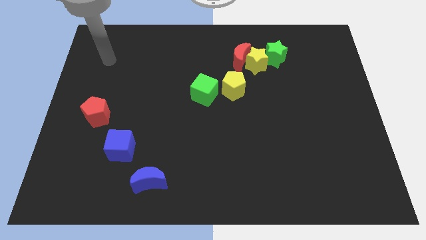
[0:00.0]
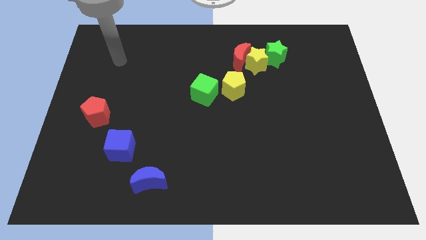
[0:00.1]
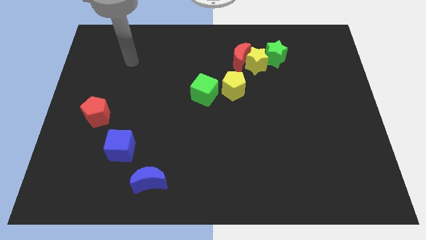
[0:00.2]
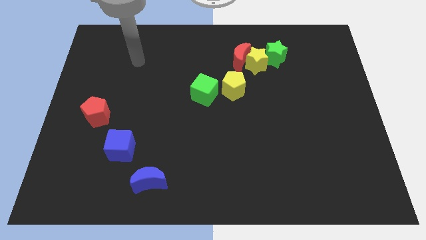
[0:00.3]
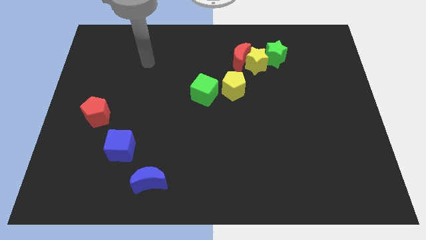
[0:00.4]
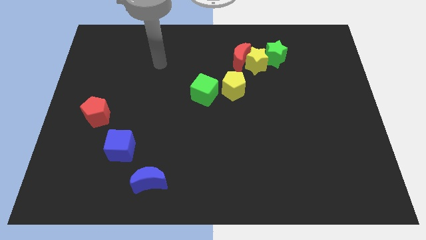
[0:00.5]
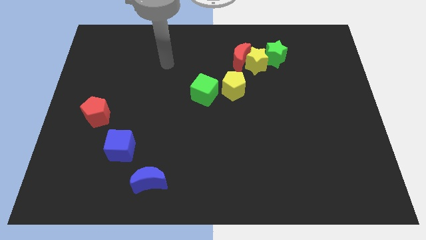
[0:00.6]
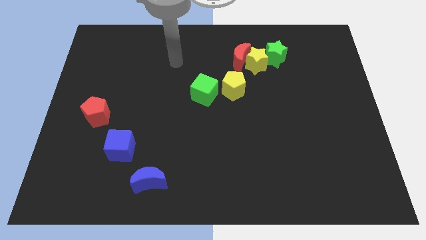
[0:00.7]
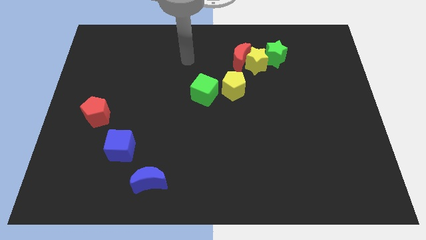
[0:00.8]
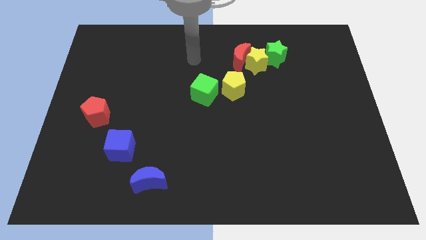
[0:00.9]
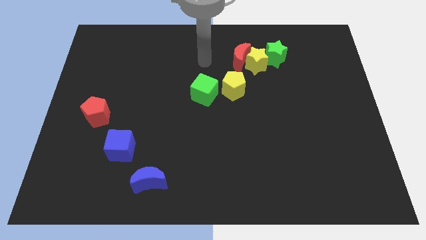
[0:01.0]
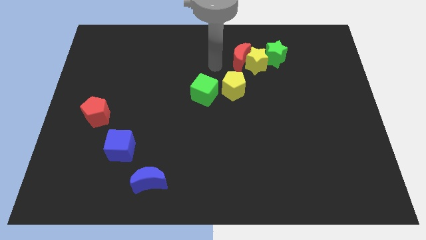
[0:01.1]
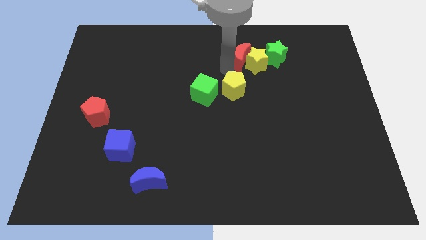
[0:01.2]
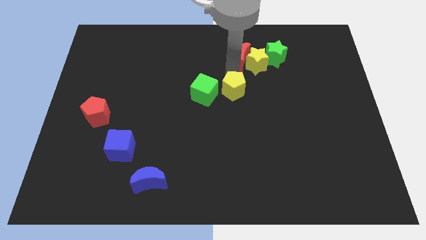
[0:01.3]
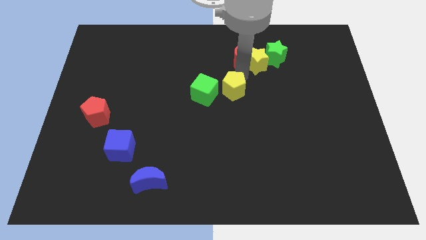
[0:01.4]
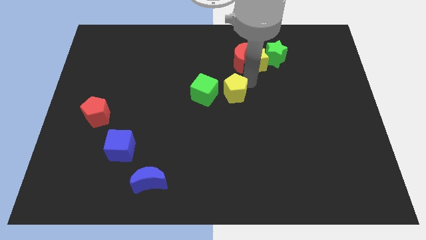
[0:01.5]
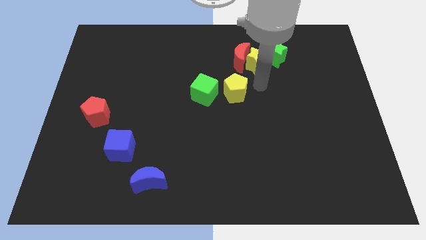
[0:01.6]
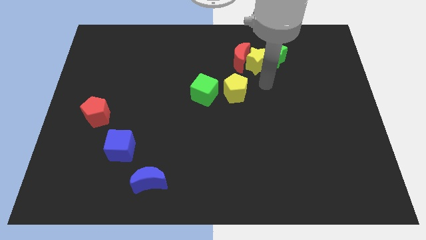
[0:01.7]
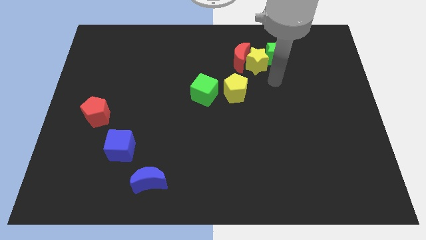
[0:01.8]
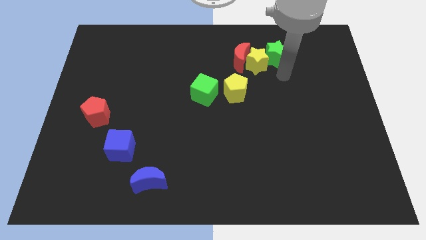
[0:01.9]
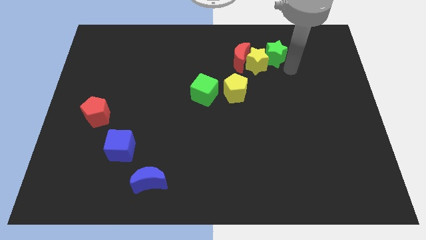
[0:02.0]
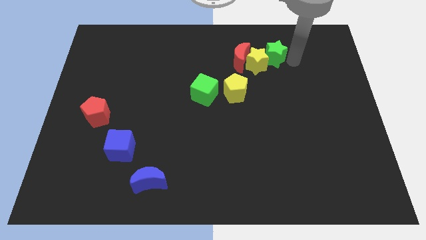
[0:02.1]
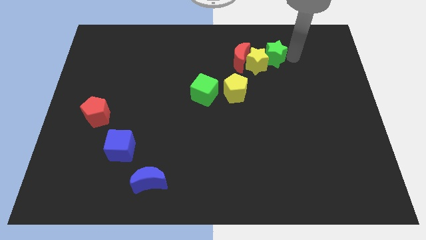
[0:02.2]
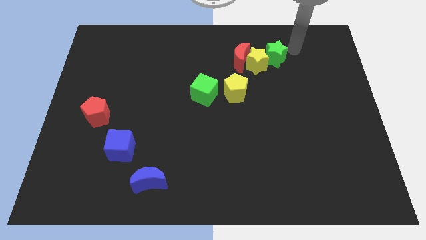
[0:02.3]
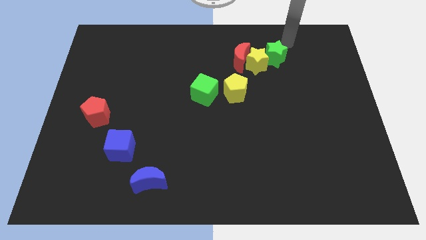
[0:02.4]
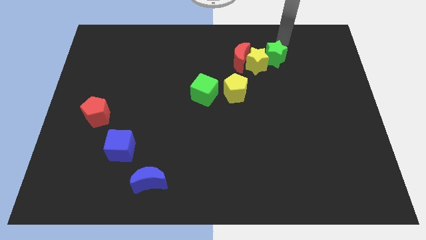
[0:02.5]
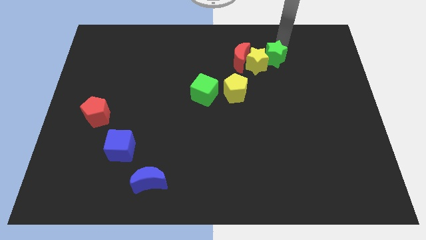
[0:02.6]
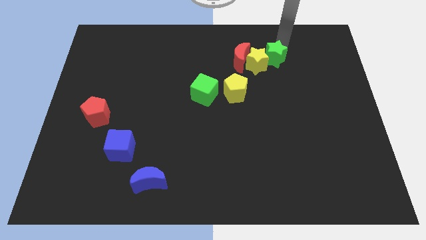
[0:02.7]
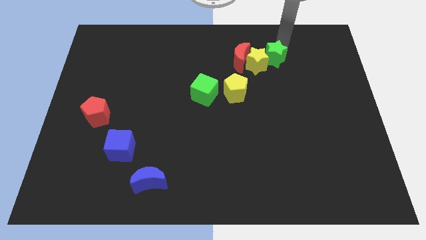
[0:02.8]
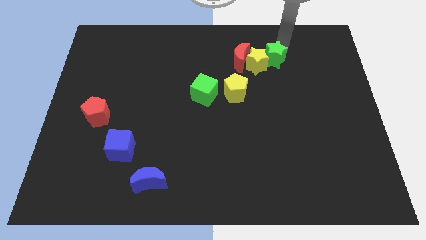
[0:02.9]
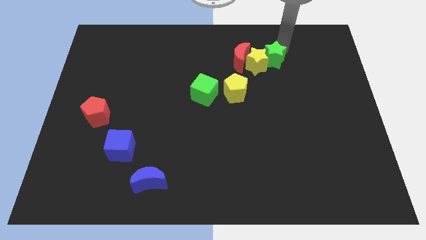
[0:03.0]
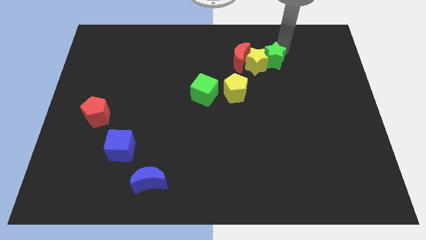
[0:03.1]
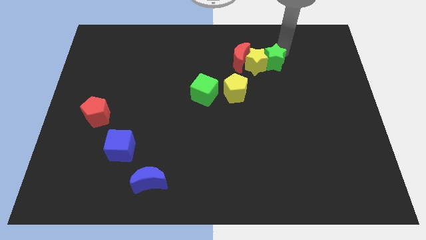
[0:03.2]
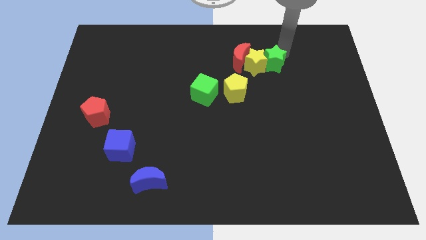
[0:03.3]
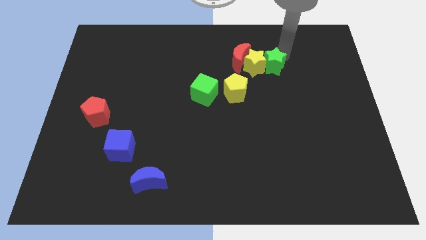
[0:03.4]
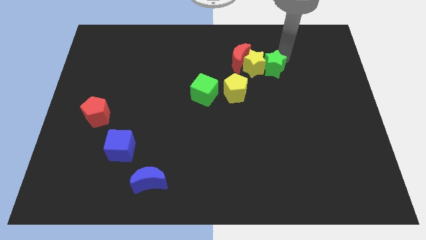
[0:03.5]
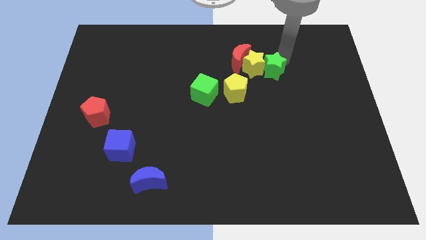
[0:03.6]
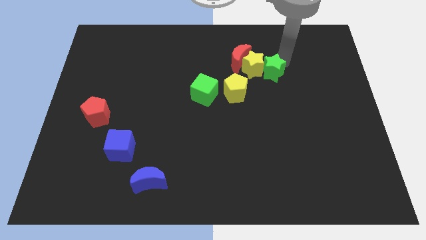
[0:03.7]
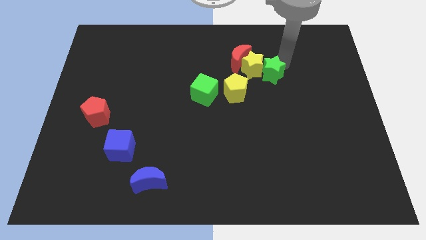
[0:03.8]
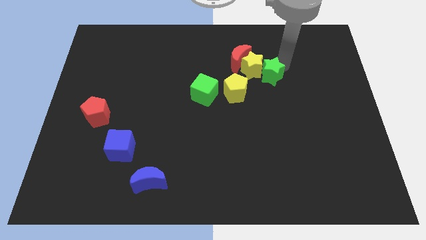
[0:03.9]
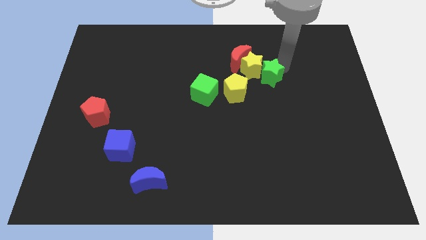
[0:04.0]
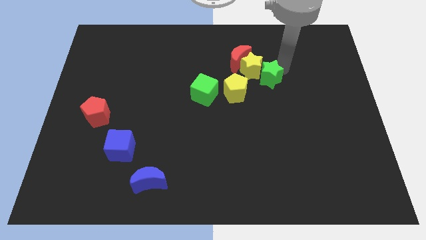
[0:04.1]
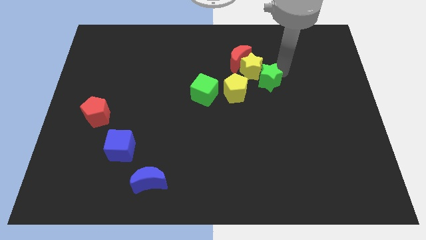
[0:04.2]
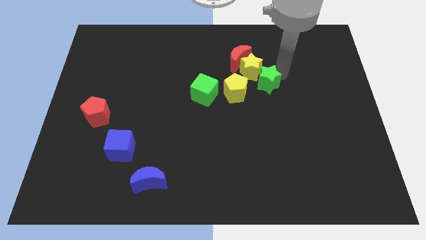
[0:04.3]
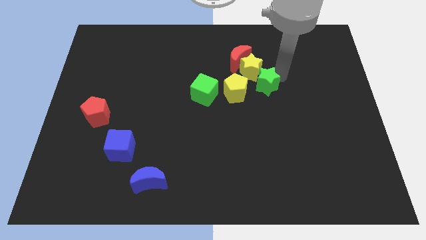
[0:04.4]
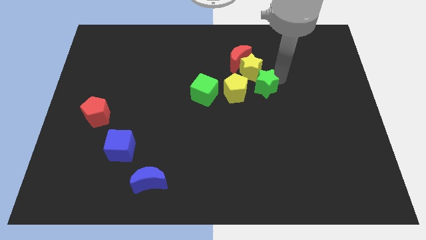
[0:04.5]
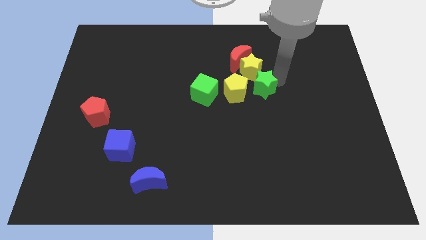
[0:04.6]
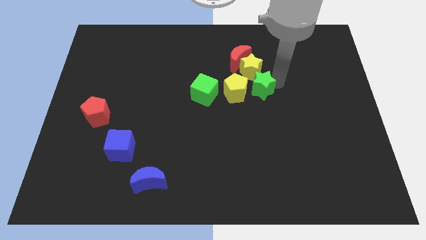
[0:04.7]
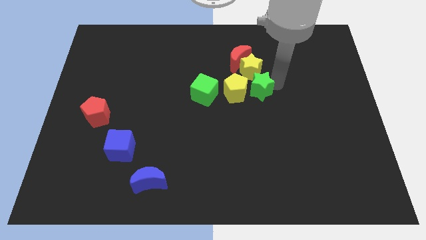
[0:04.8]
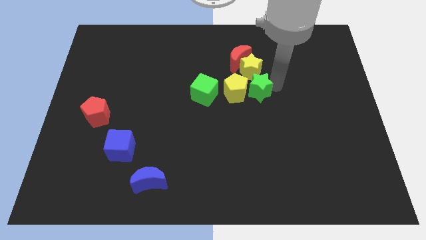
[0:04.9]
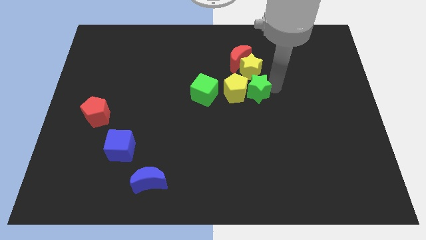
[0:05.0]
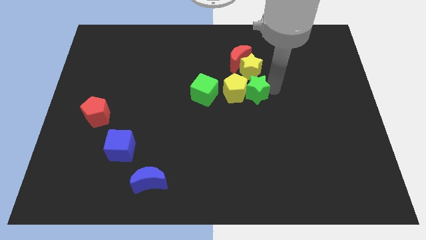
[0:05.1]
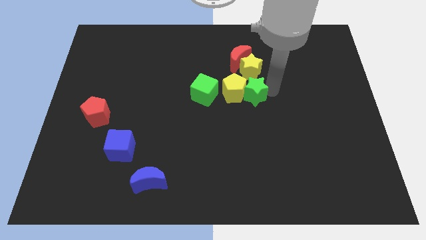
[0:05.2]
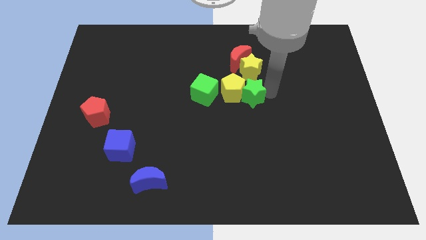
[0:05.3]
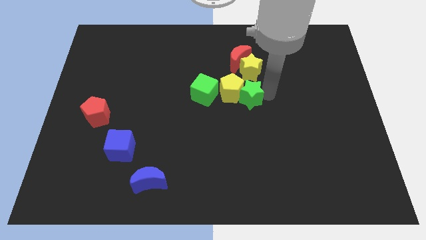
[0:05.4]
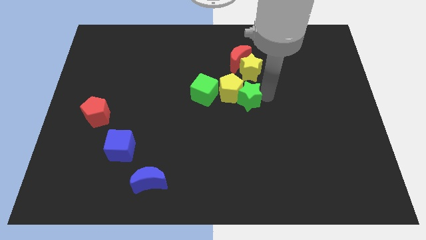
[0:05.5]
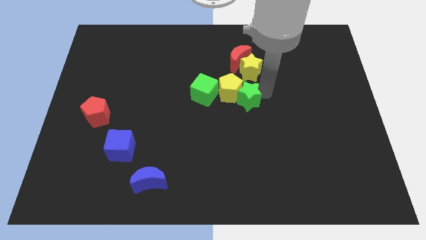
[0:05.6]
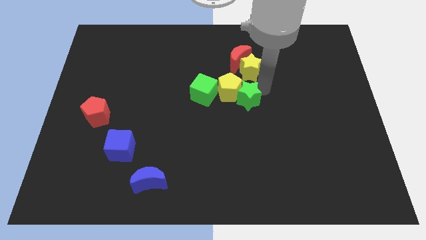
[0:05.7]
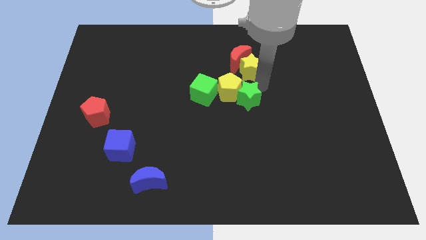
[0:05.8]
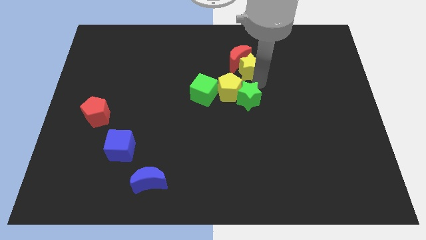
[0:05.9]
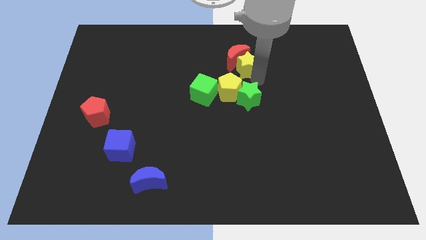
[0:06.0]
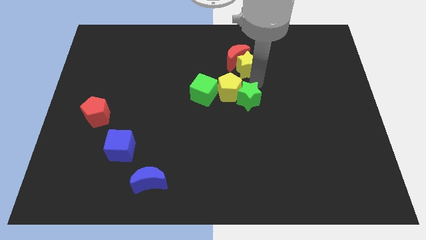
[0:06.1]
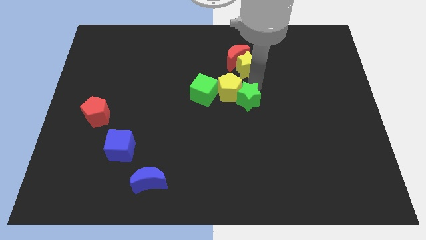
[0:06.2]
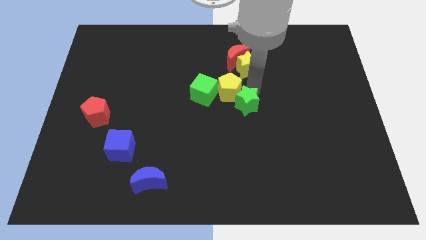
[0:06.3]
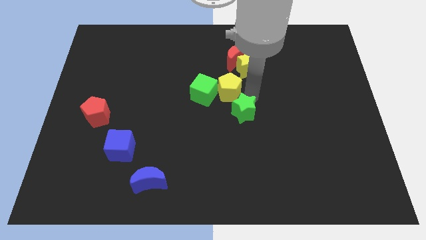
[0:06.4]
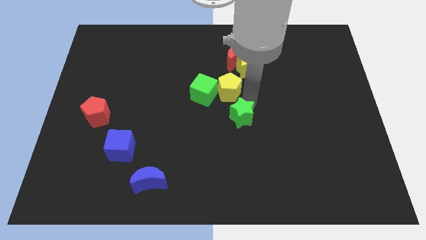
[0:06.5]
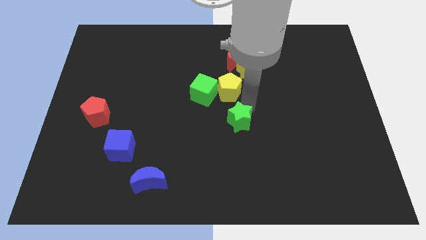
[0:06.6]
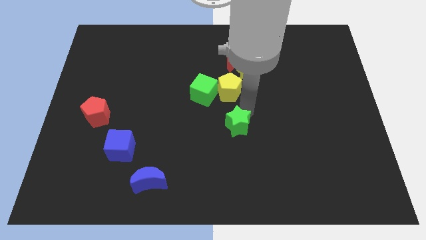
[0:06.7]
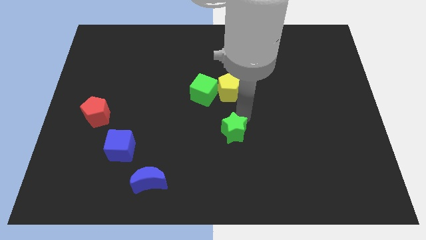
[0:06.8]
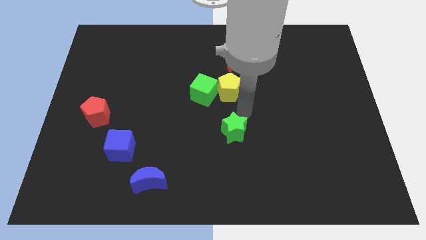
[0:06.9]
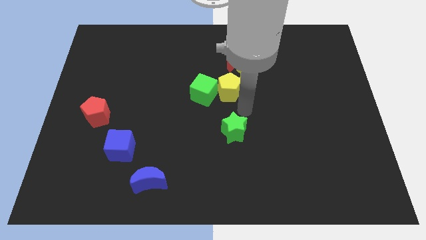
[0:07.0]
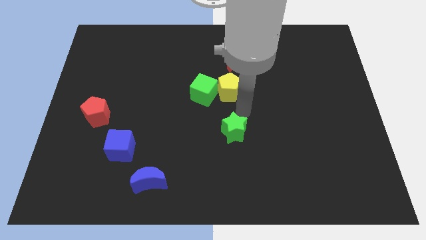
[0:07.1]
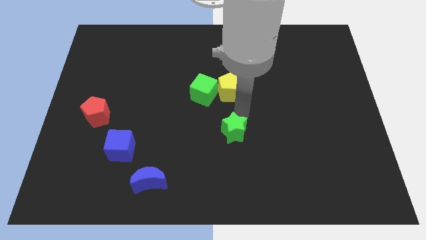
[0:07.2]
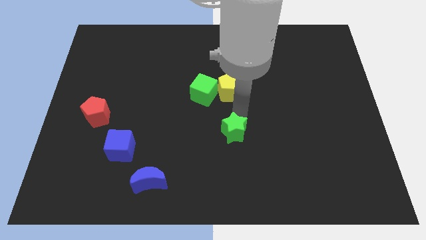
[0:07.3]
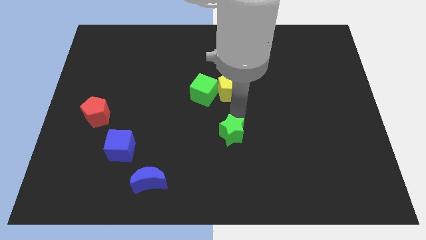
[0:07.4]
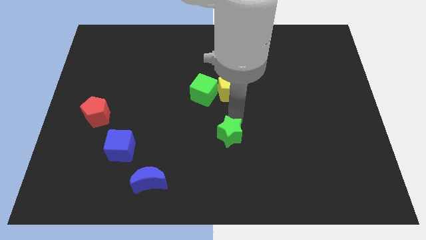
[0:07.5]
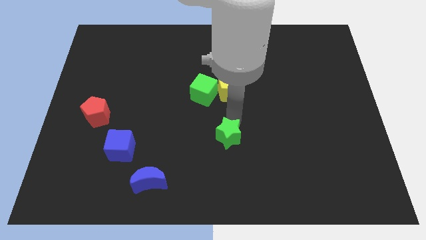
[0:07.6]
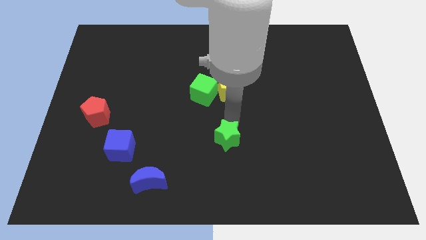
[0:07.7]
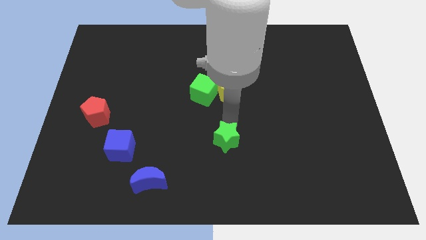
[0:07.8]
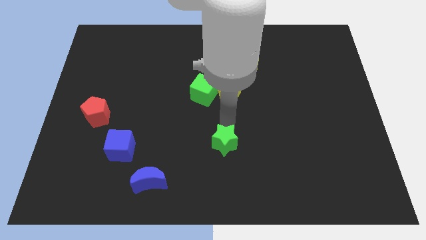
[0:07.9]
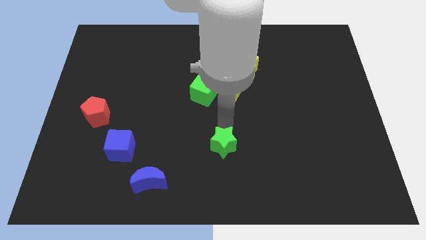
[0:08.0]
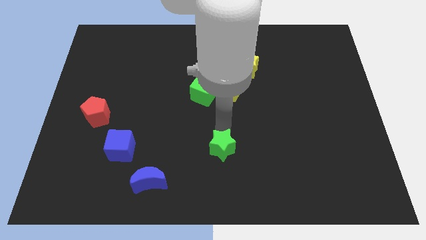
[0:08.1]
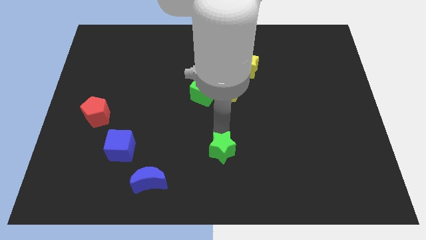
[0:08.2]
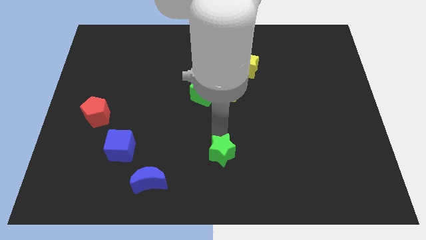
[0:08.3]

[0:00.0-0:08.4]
put the green star to the bottom
